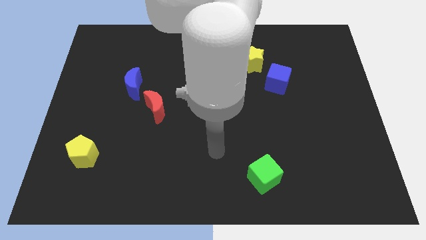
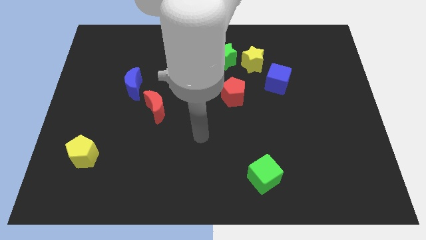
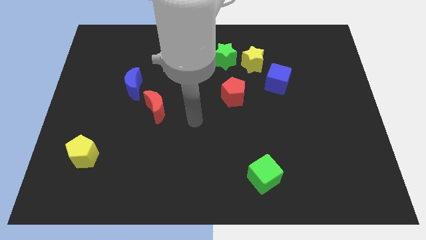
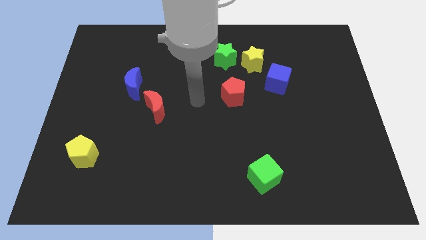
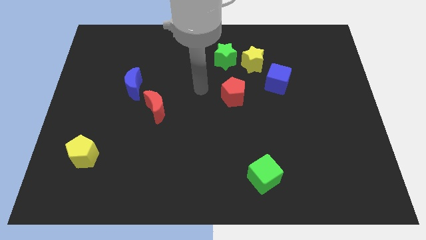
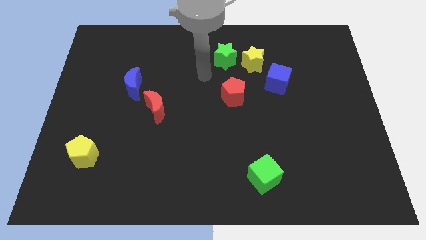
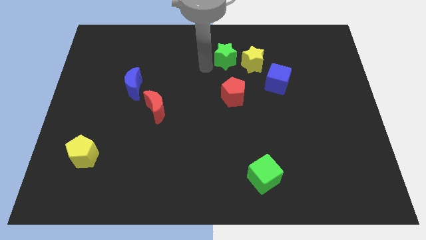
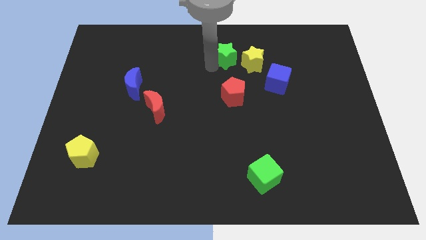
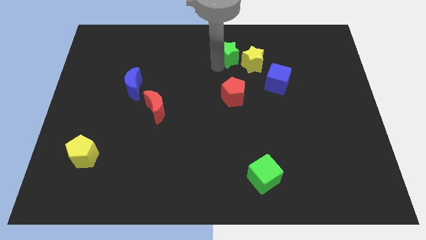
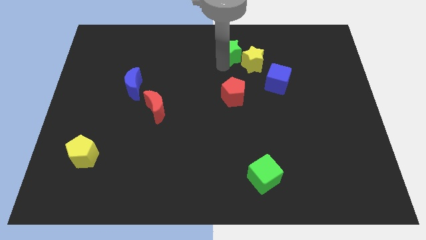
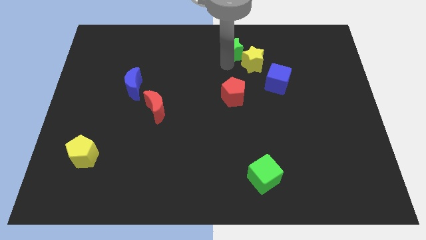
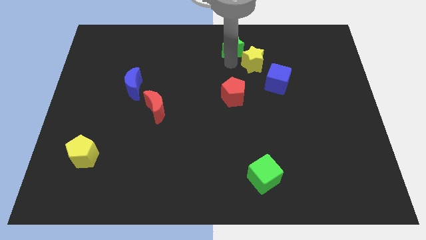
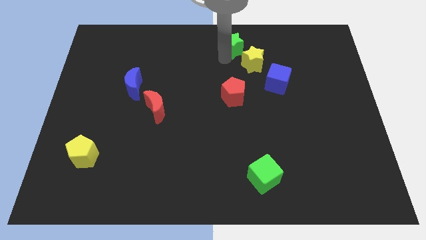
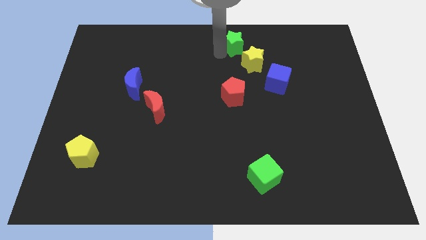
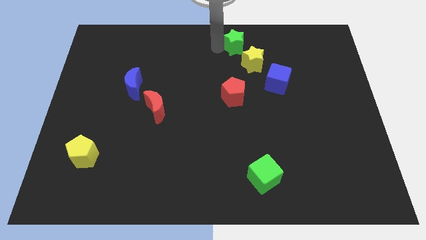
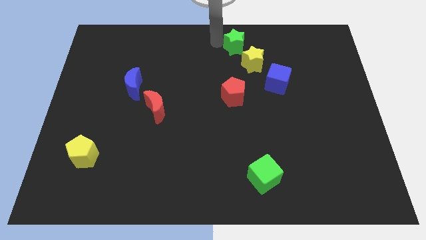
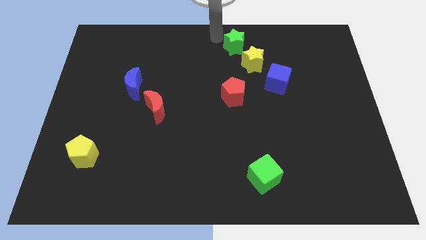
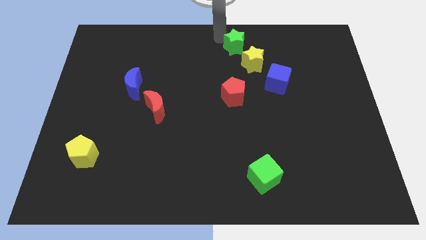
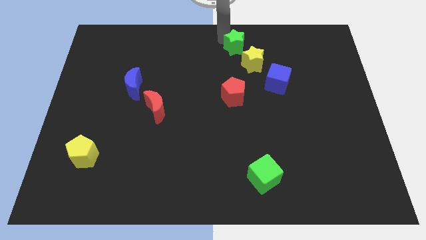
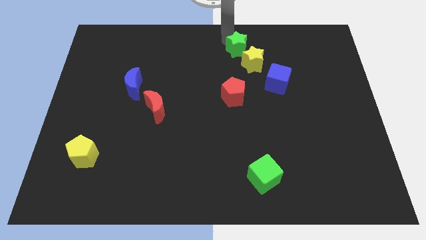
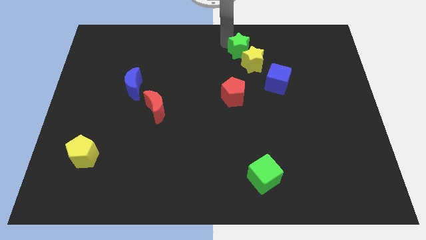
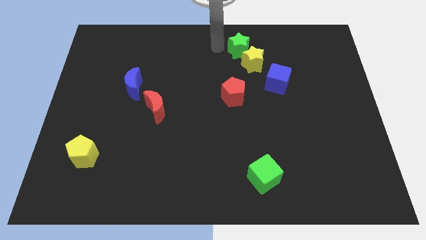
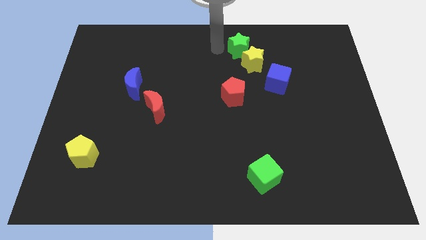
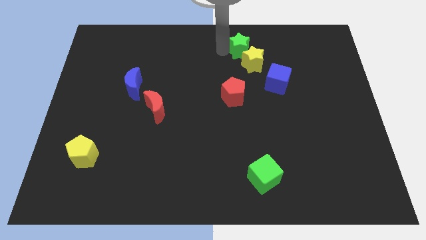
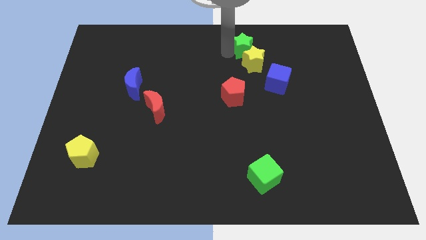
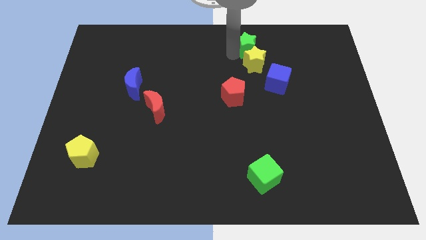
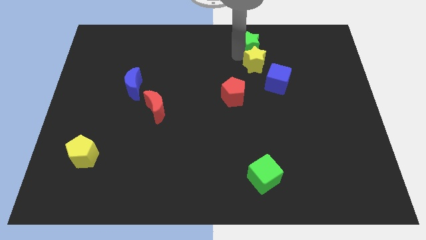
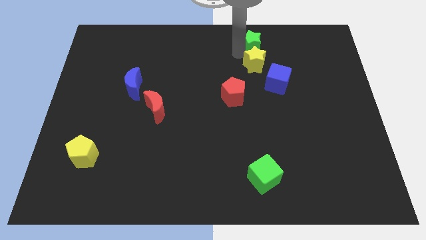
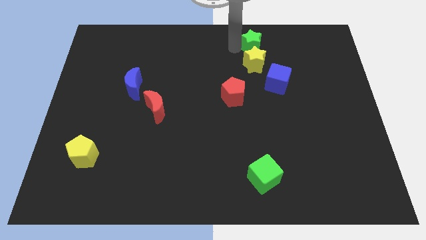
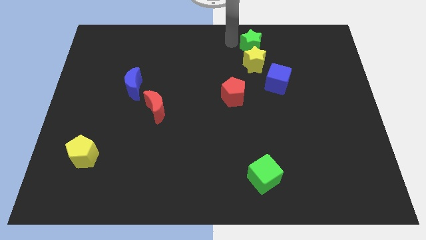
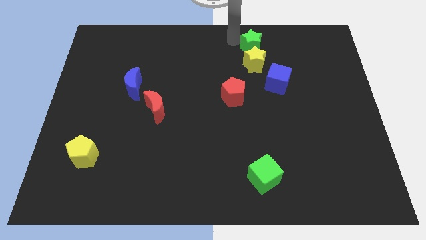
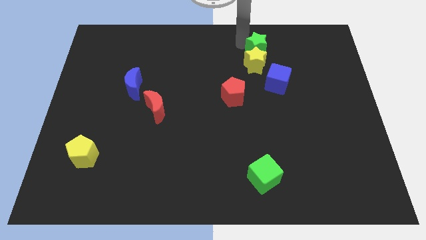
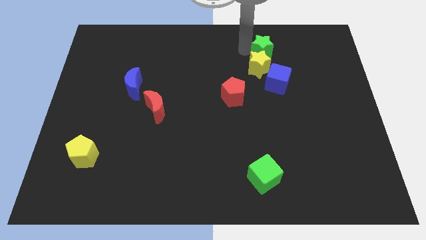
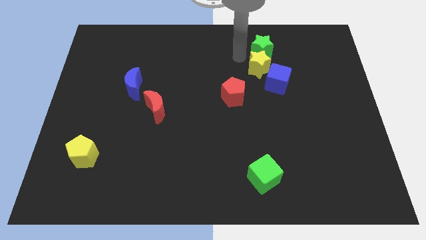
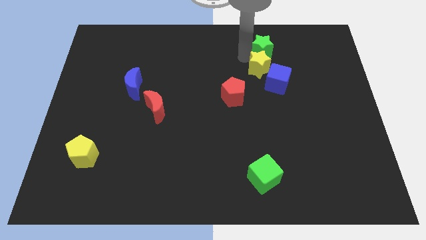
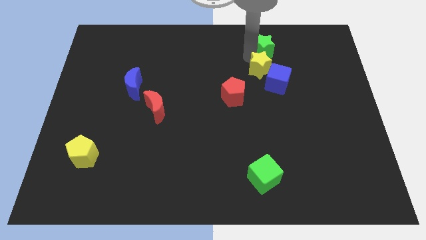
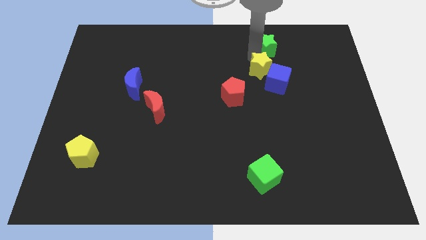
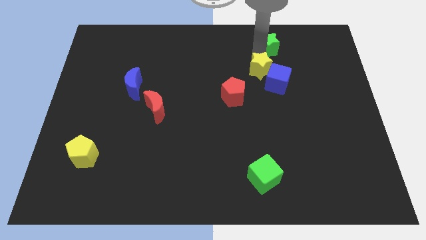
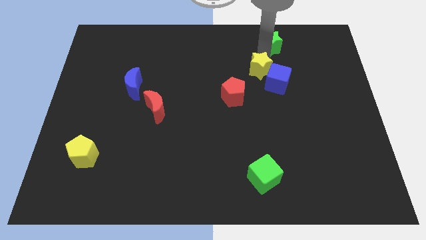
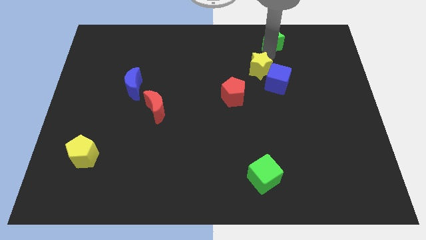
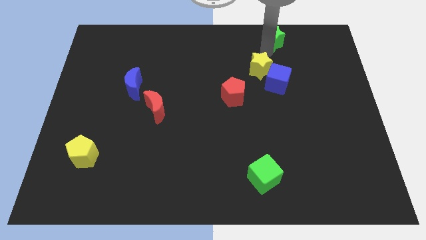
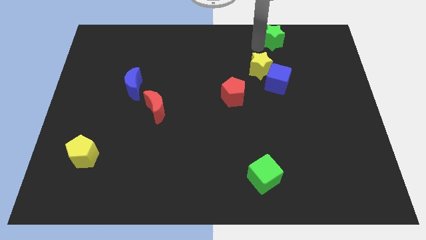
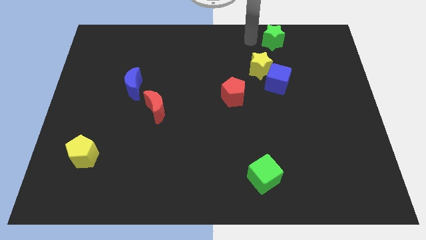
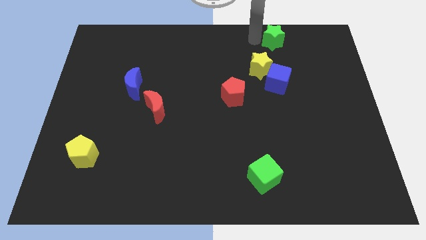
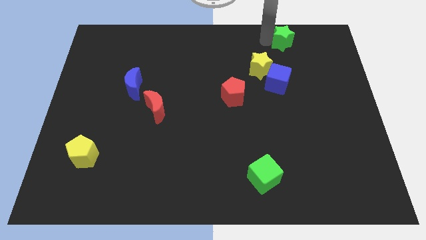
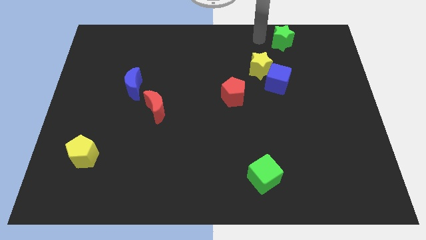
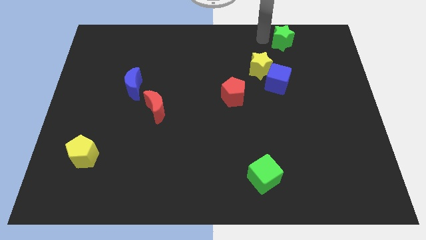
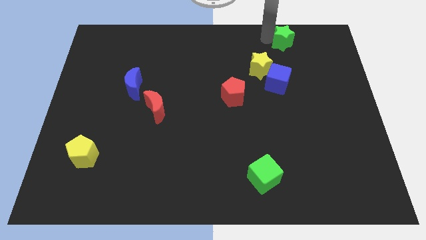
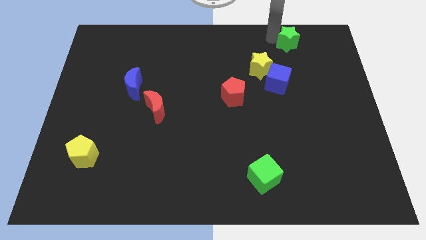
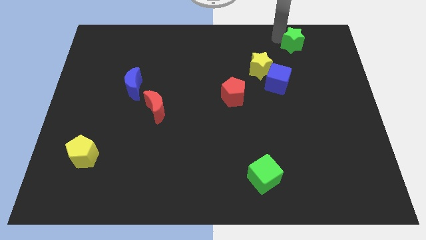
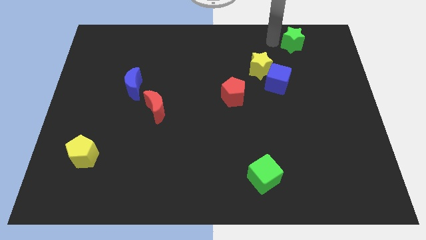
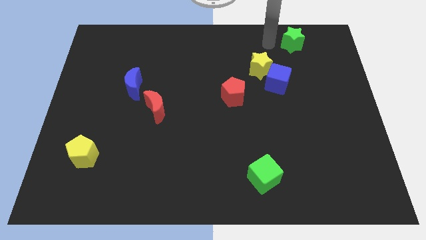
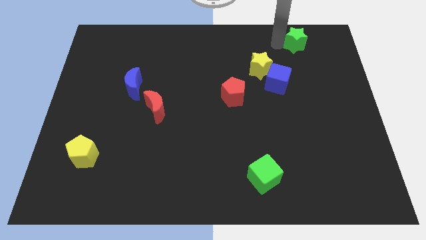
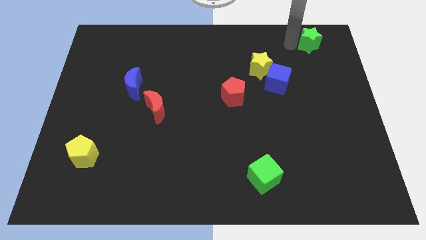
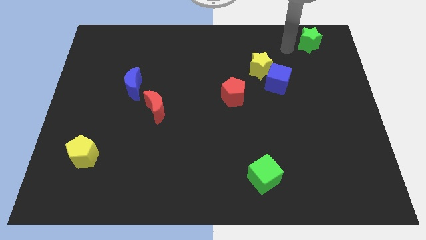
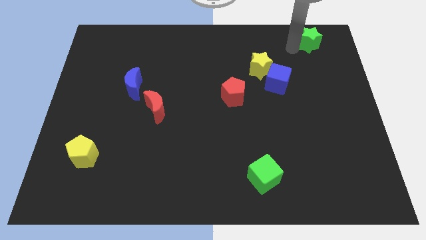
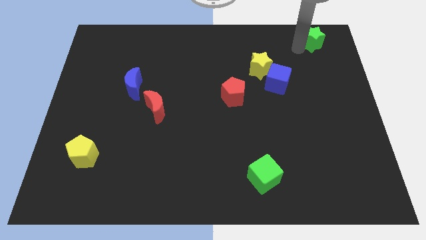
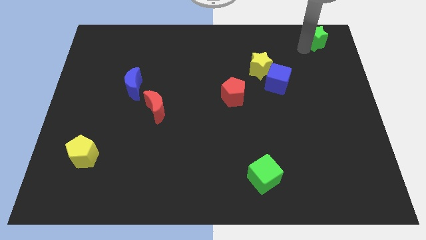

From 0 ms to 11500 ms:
put the green star to the upper right corner

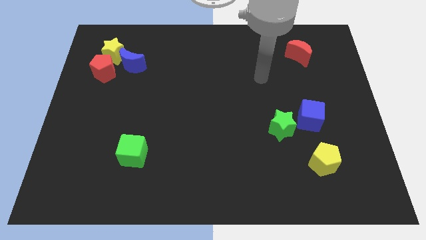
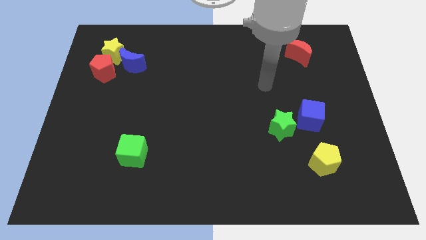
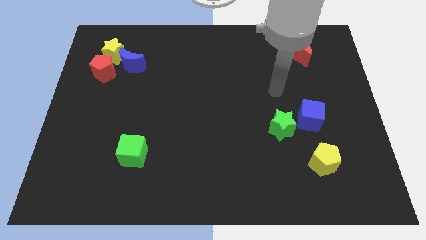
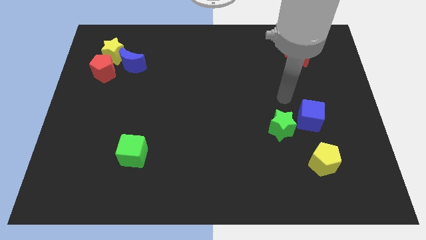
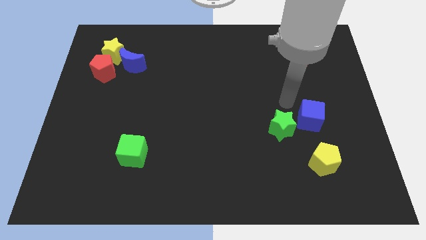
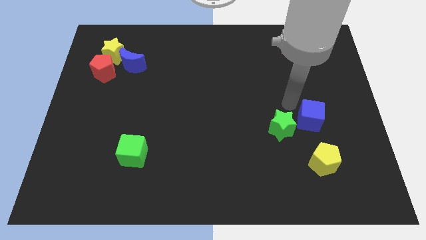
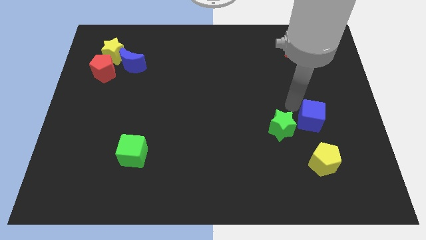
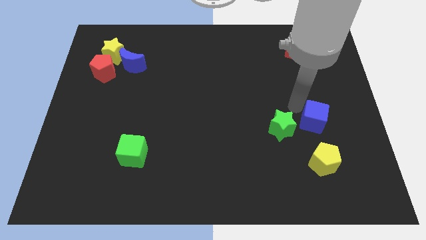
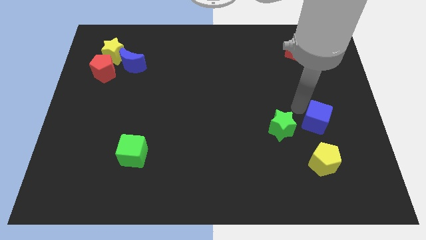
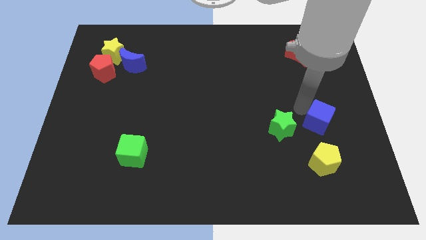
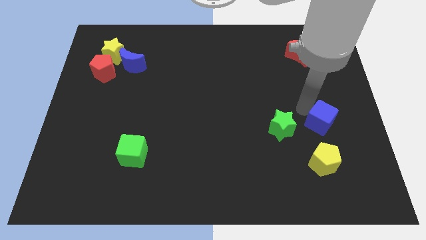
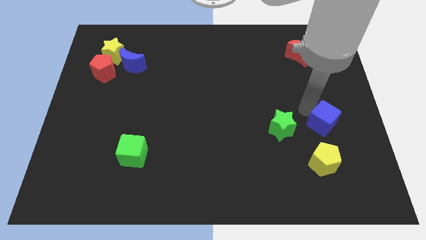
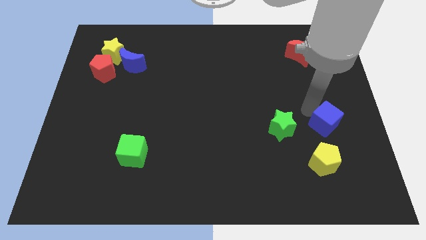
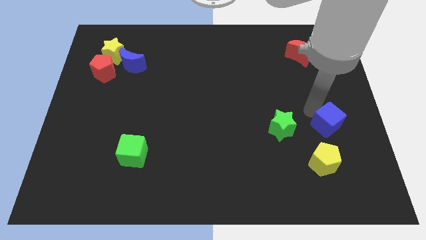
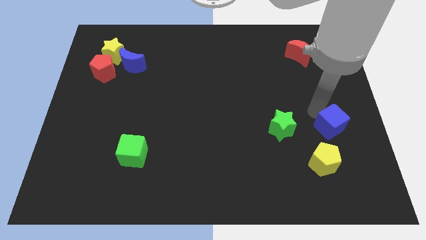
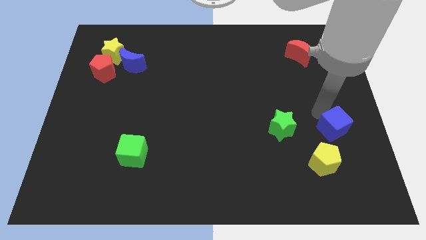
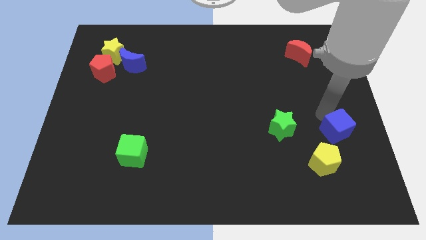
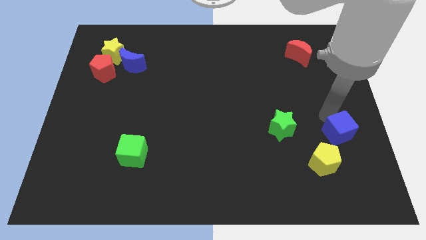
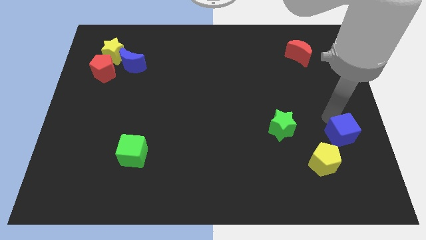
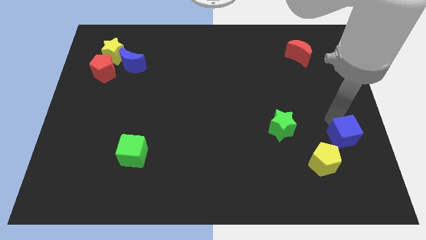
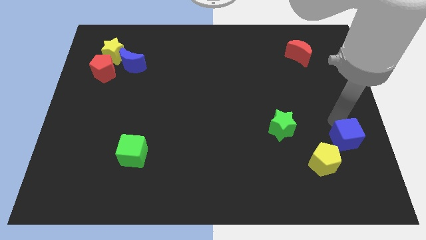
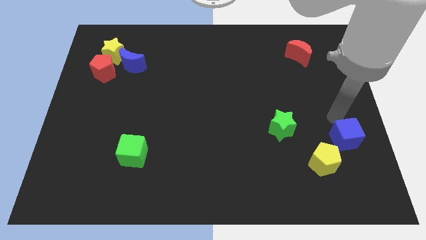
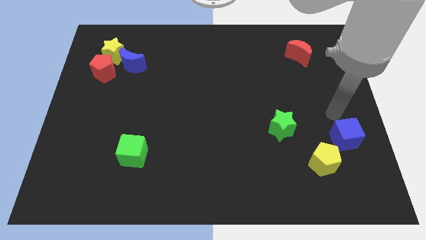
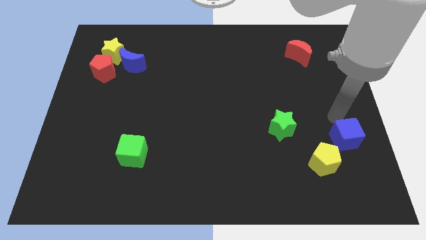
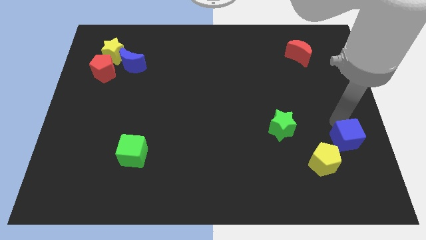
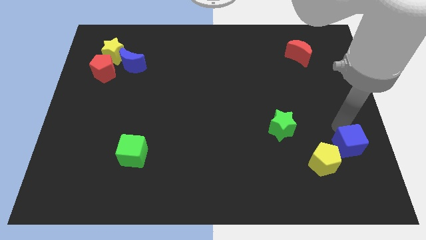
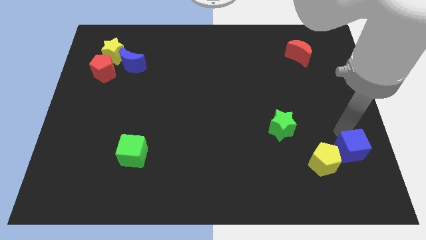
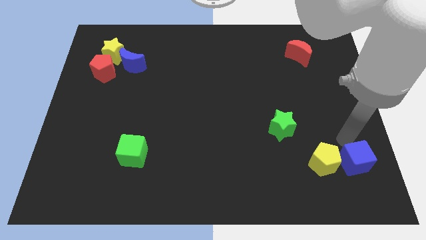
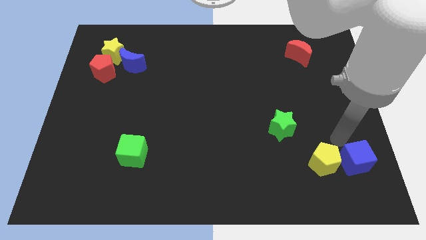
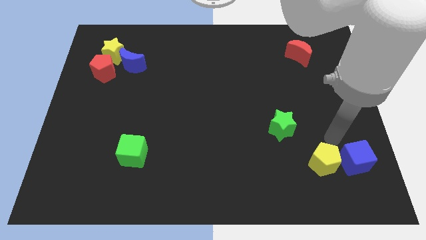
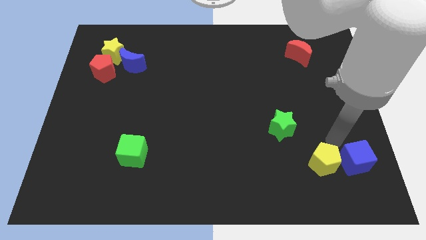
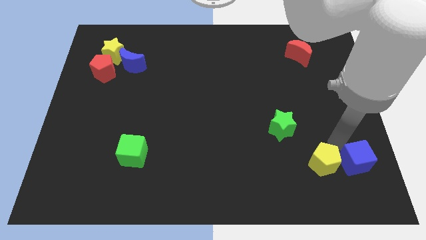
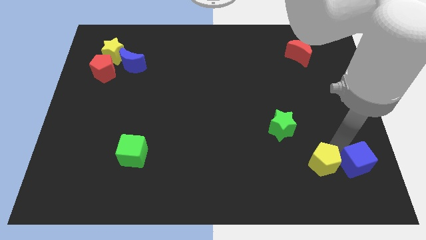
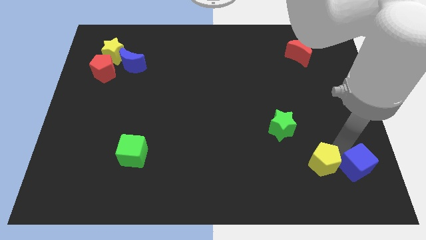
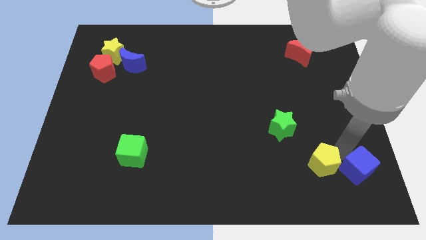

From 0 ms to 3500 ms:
move the blue cube to the lower right corner
